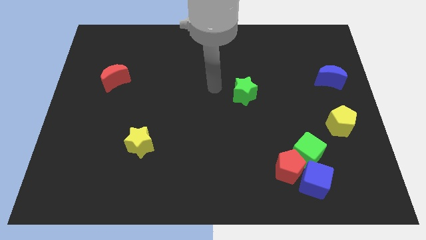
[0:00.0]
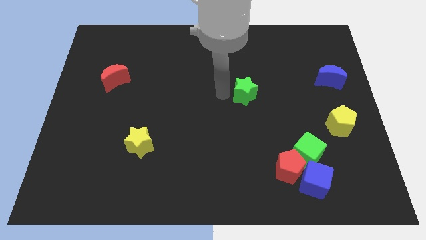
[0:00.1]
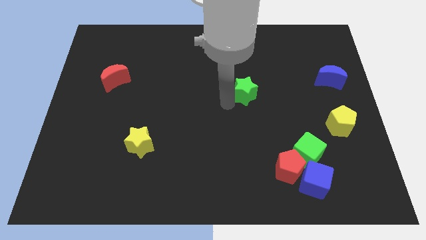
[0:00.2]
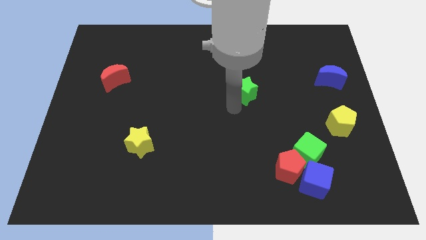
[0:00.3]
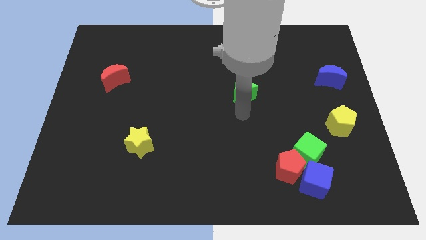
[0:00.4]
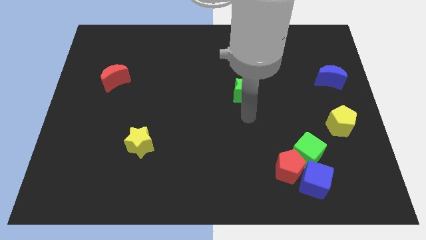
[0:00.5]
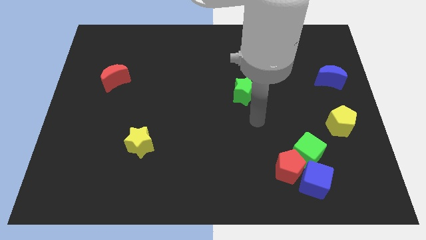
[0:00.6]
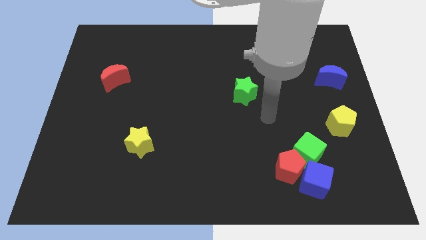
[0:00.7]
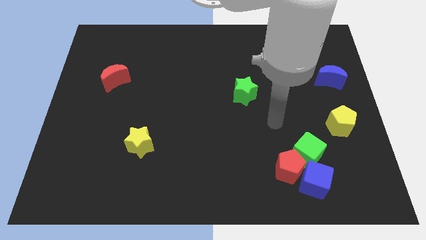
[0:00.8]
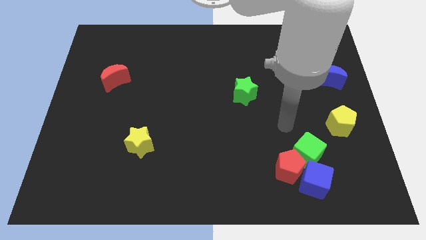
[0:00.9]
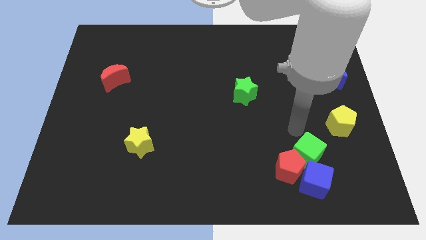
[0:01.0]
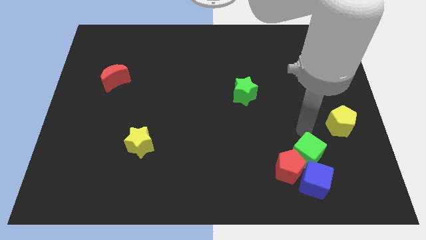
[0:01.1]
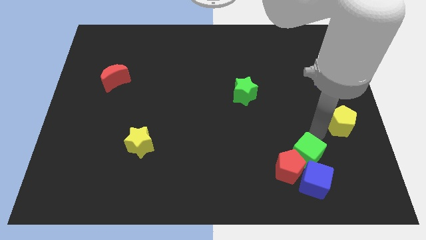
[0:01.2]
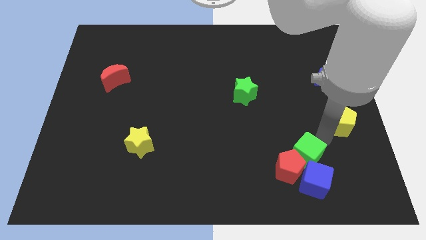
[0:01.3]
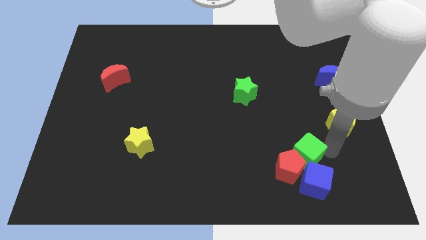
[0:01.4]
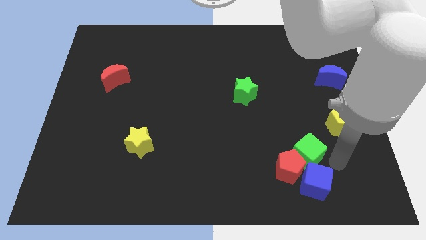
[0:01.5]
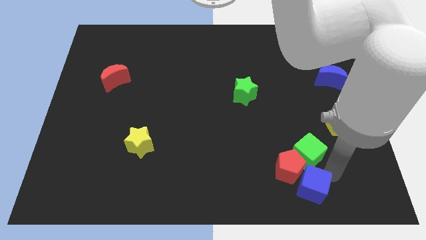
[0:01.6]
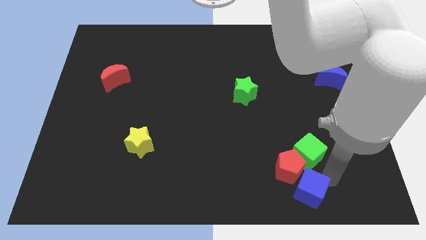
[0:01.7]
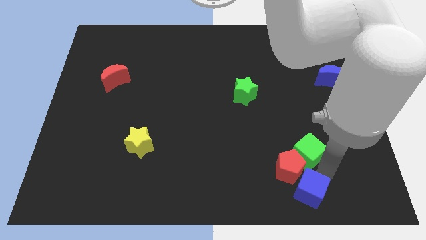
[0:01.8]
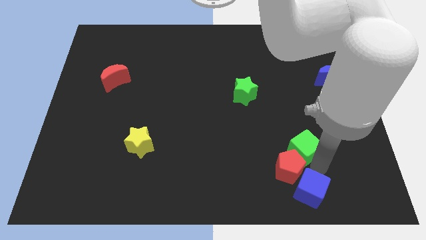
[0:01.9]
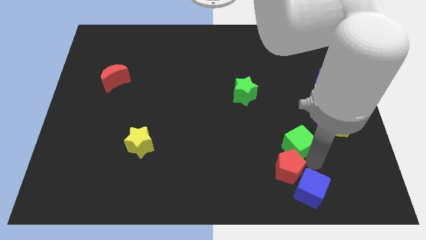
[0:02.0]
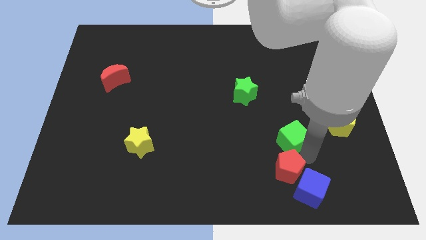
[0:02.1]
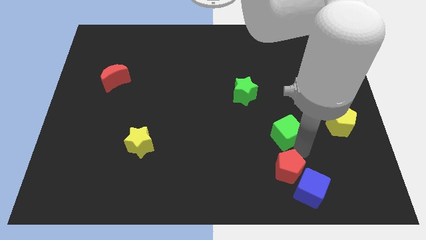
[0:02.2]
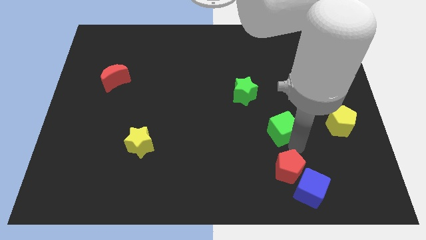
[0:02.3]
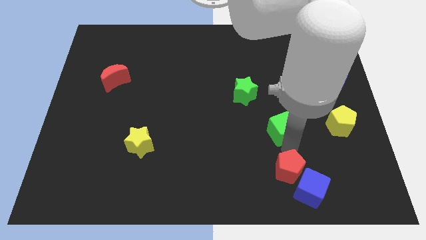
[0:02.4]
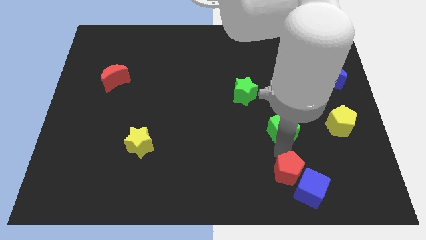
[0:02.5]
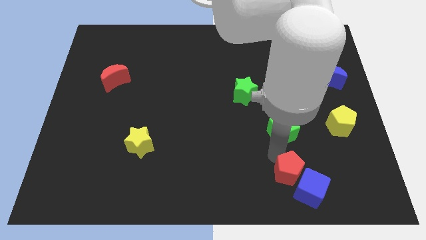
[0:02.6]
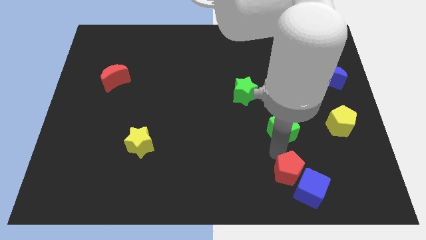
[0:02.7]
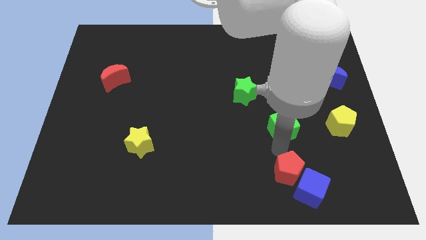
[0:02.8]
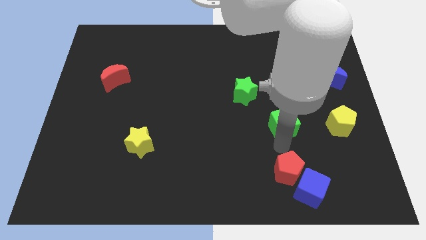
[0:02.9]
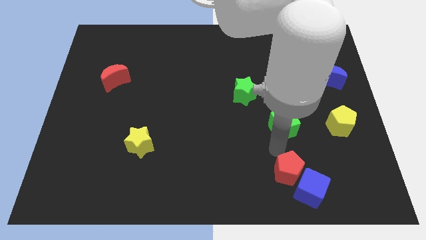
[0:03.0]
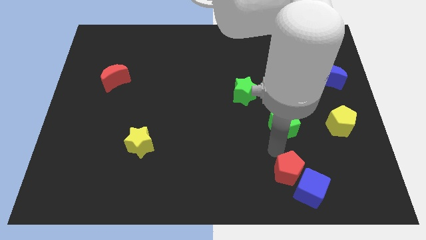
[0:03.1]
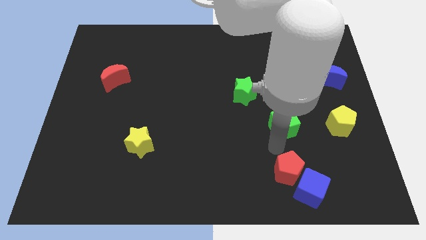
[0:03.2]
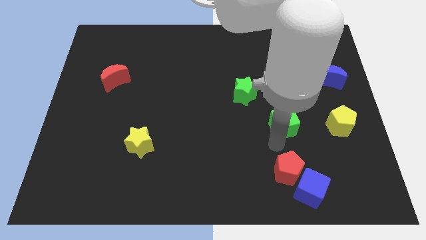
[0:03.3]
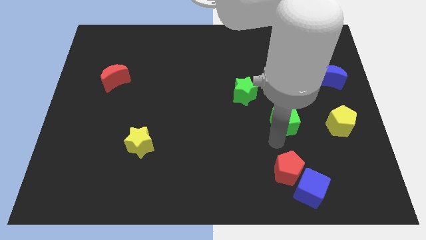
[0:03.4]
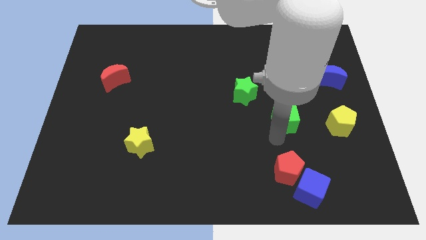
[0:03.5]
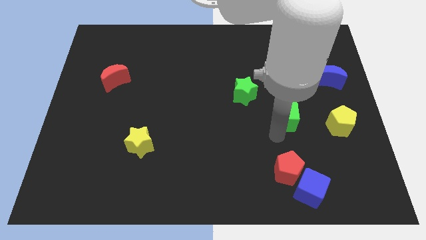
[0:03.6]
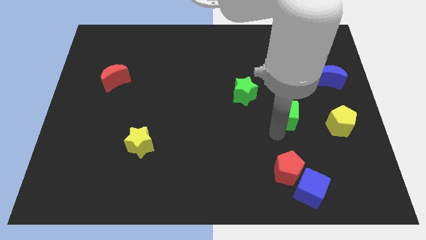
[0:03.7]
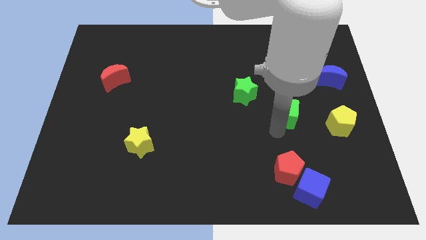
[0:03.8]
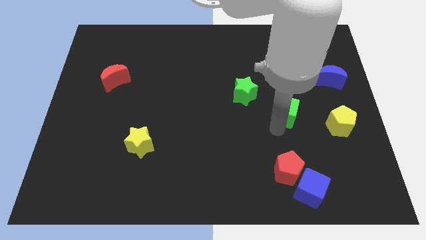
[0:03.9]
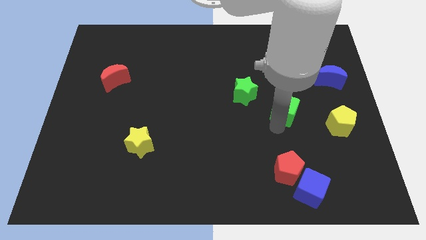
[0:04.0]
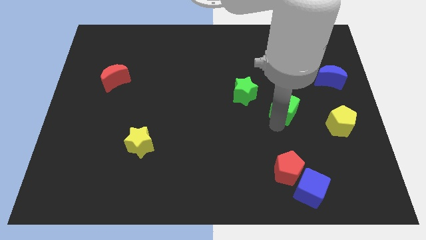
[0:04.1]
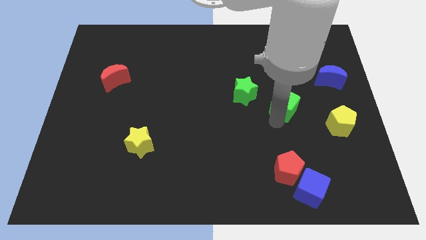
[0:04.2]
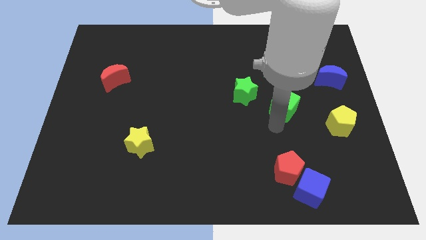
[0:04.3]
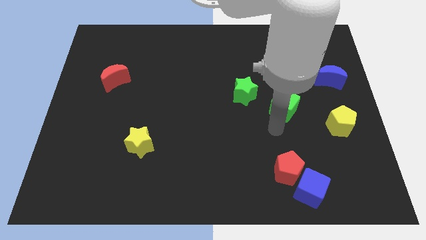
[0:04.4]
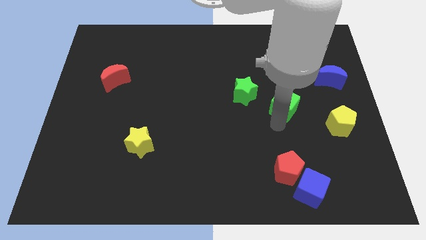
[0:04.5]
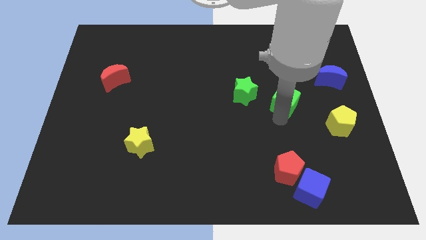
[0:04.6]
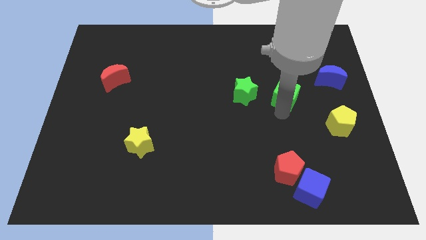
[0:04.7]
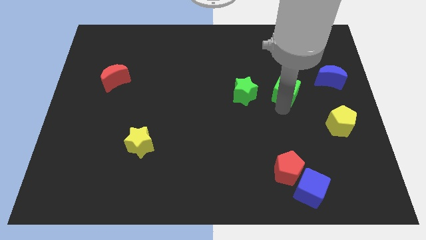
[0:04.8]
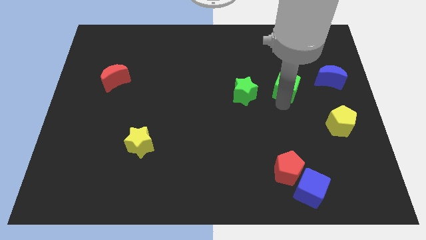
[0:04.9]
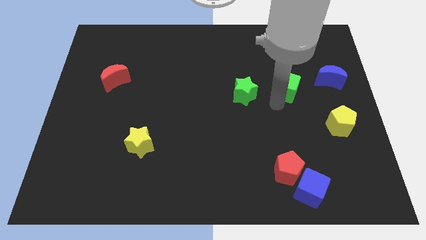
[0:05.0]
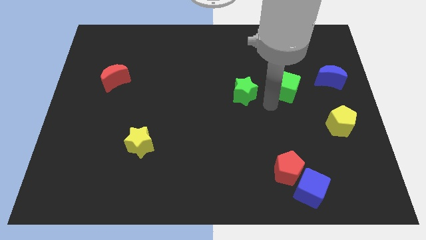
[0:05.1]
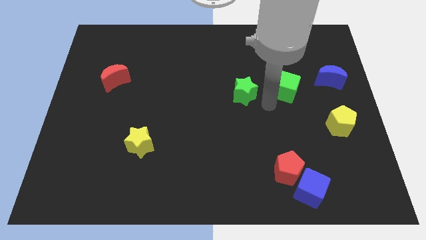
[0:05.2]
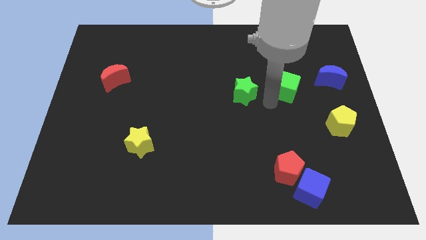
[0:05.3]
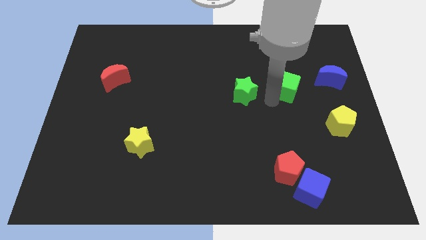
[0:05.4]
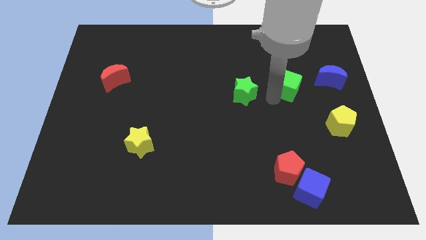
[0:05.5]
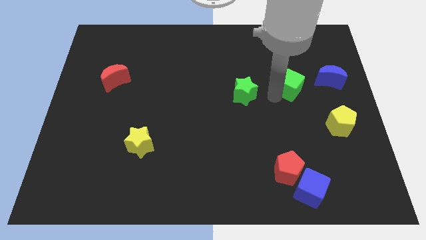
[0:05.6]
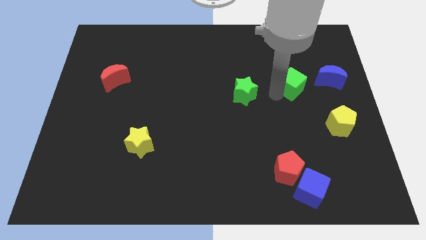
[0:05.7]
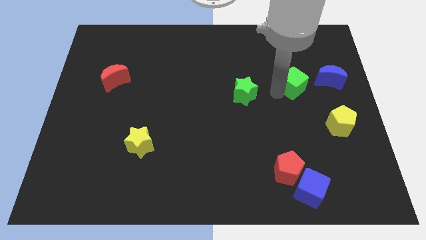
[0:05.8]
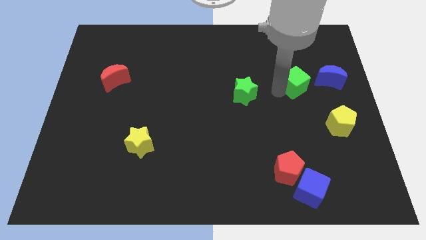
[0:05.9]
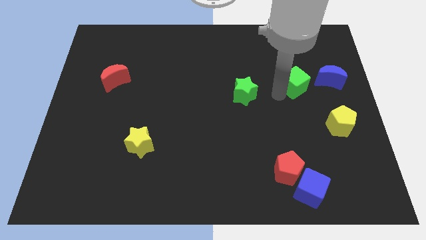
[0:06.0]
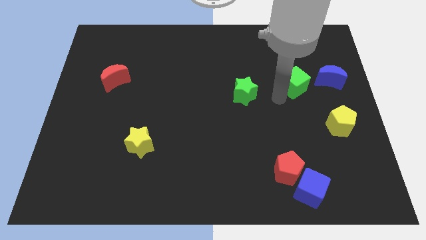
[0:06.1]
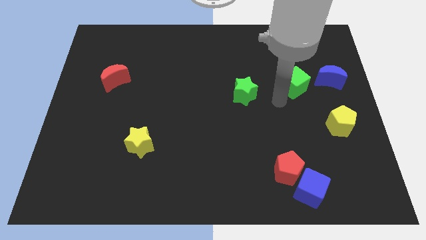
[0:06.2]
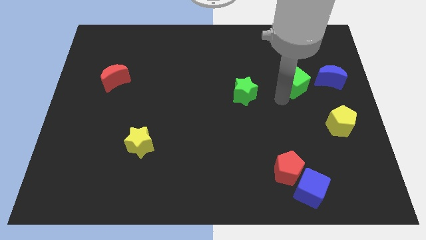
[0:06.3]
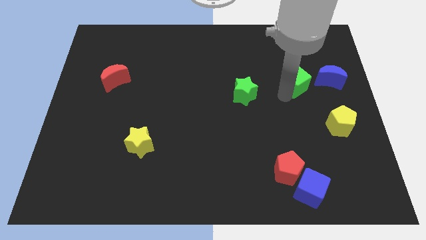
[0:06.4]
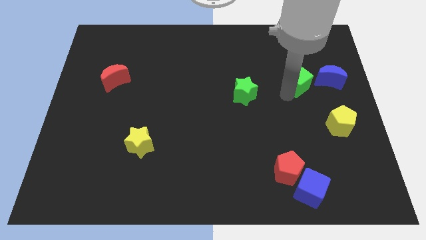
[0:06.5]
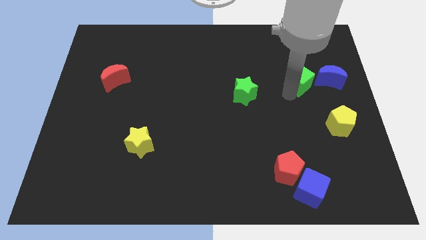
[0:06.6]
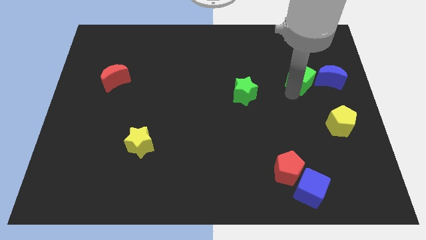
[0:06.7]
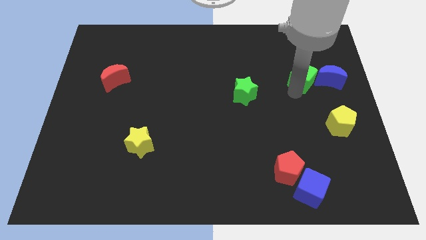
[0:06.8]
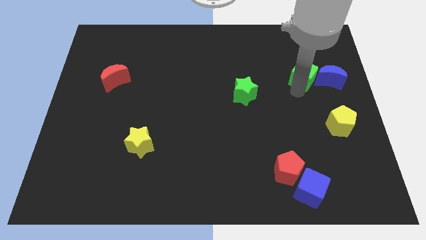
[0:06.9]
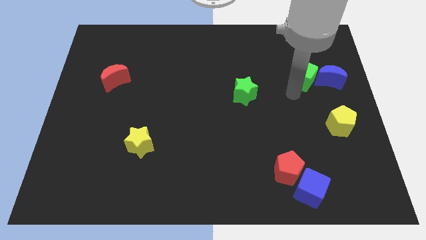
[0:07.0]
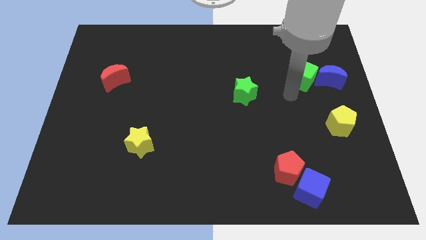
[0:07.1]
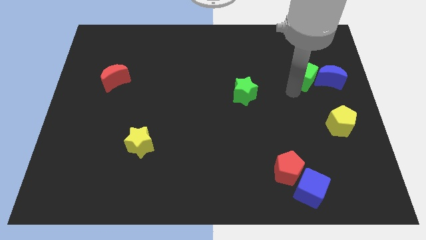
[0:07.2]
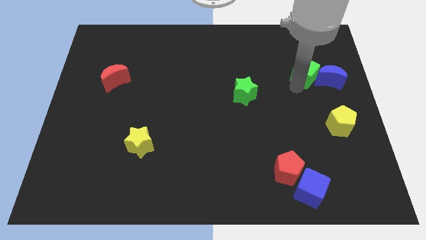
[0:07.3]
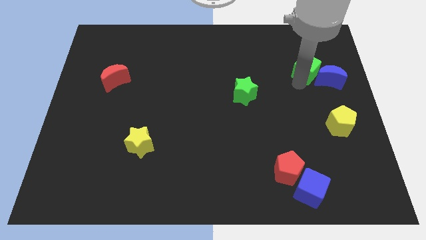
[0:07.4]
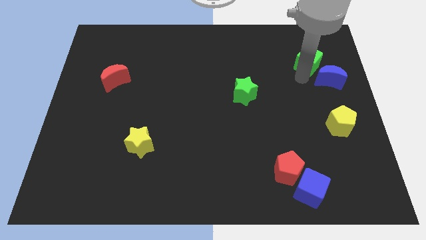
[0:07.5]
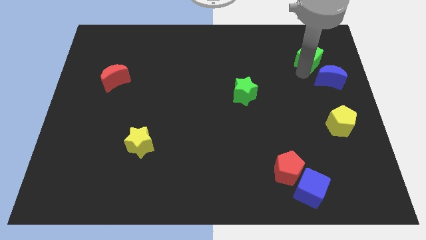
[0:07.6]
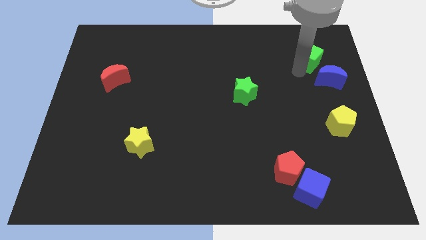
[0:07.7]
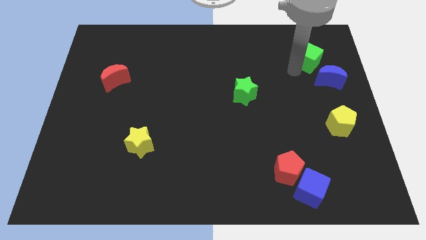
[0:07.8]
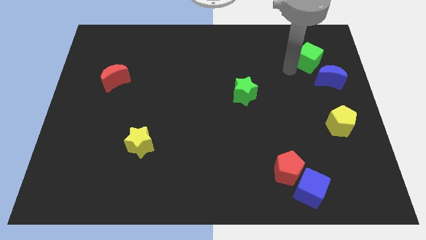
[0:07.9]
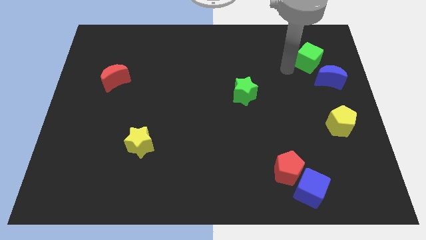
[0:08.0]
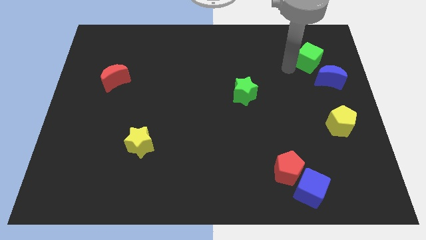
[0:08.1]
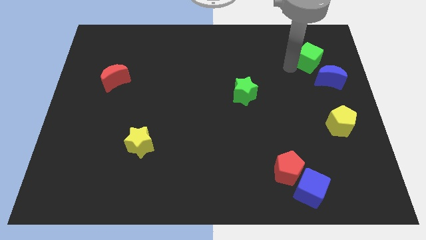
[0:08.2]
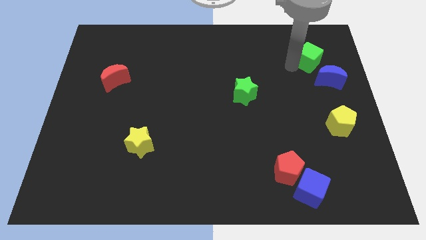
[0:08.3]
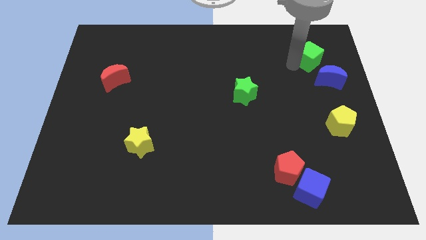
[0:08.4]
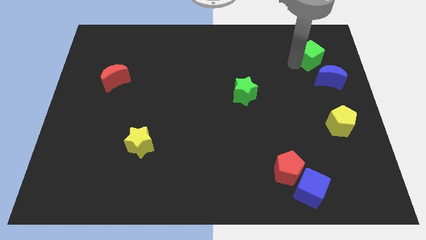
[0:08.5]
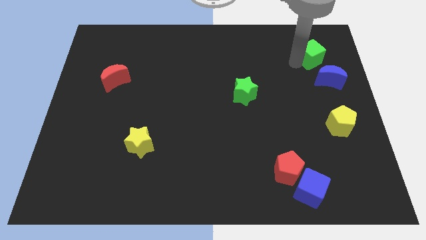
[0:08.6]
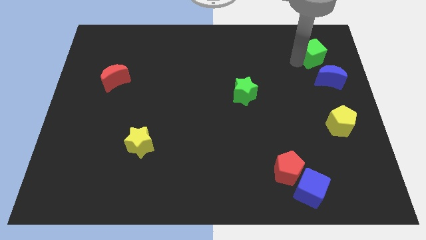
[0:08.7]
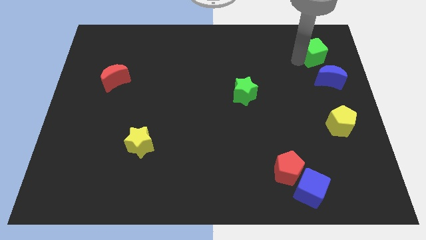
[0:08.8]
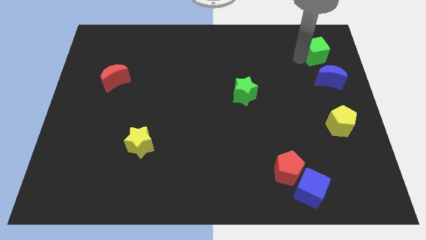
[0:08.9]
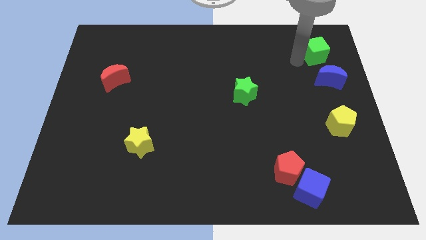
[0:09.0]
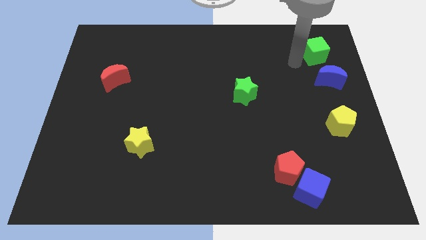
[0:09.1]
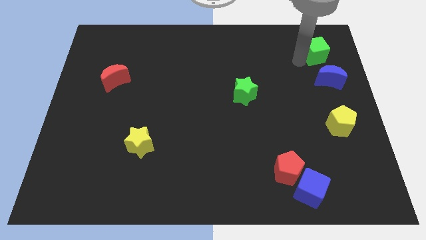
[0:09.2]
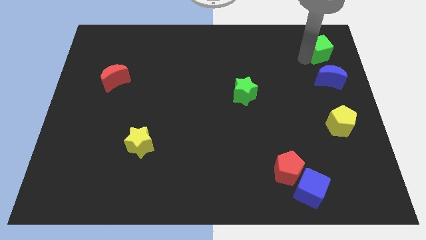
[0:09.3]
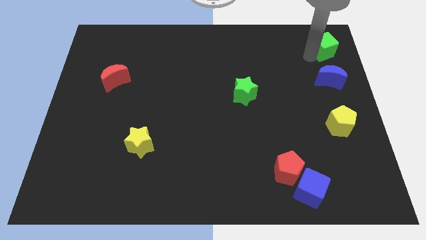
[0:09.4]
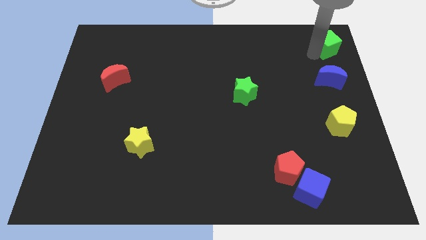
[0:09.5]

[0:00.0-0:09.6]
push the green cube to the top right corner
